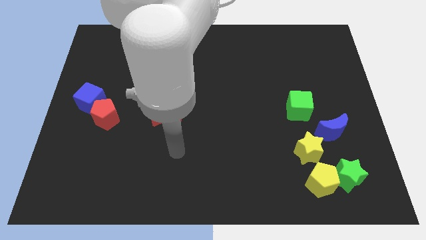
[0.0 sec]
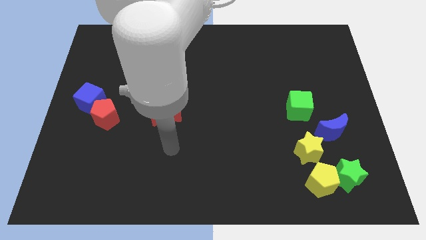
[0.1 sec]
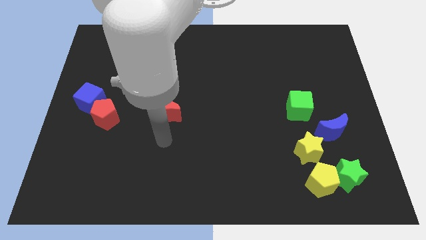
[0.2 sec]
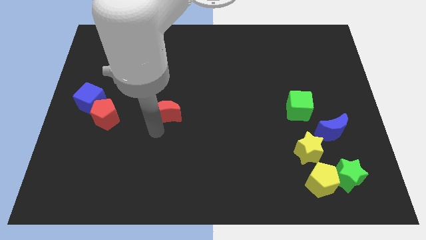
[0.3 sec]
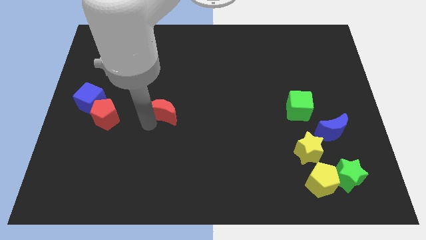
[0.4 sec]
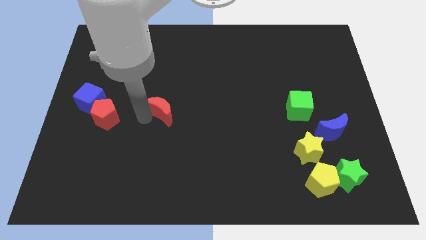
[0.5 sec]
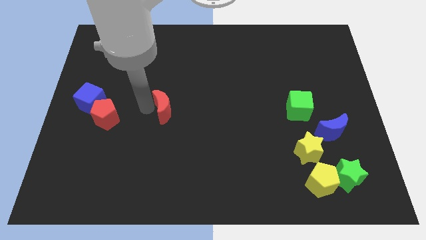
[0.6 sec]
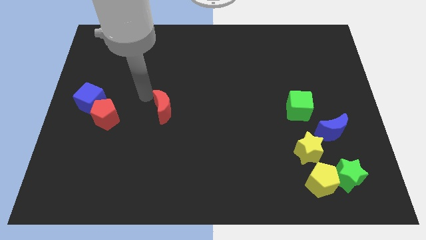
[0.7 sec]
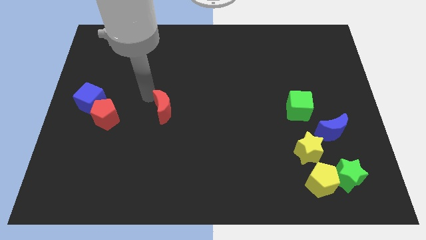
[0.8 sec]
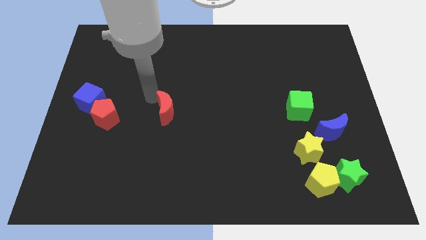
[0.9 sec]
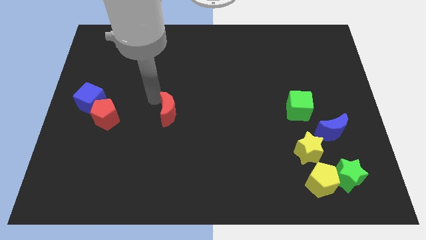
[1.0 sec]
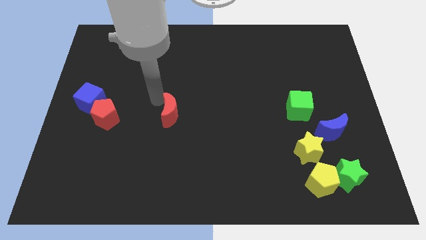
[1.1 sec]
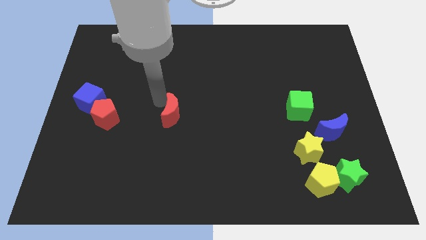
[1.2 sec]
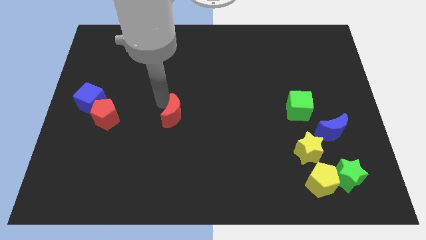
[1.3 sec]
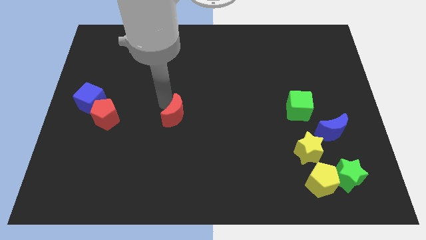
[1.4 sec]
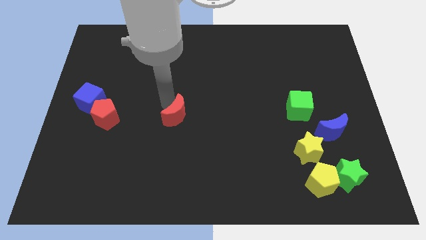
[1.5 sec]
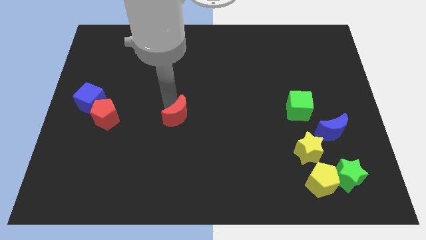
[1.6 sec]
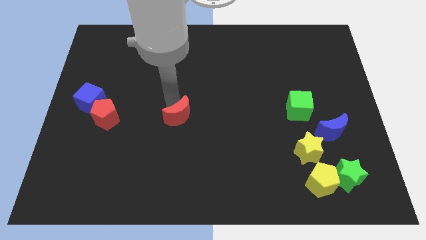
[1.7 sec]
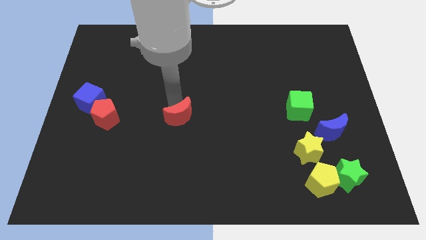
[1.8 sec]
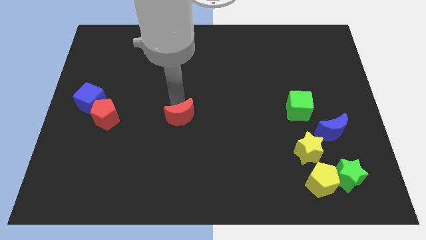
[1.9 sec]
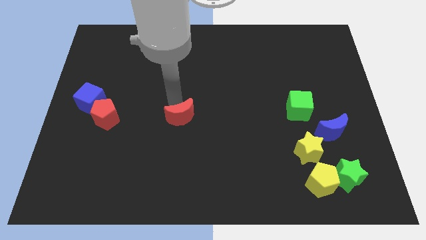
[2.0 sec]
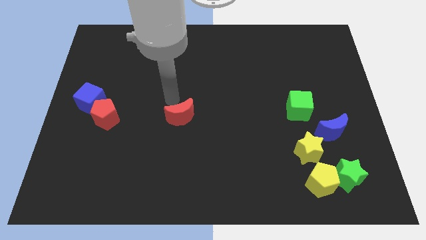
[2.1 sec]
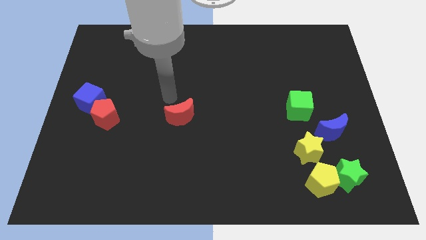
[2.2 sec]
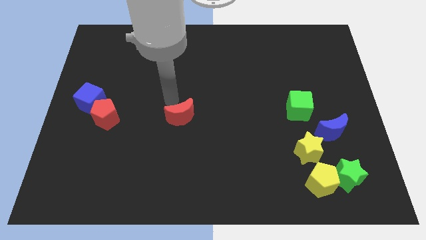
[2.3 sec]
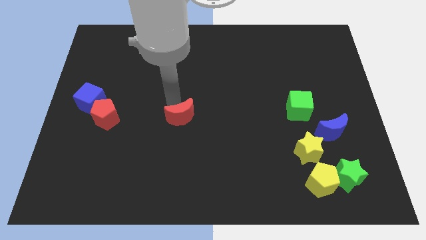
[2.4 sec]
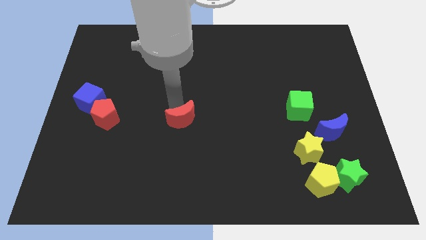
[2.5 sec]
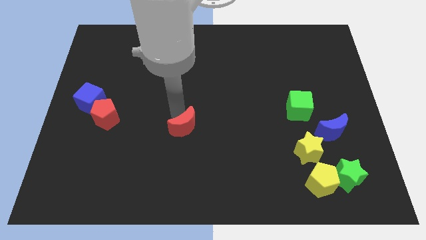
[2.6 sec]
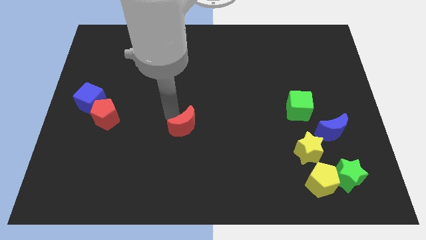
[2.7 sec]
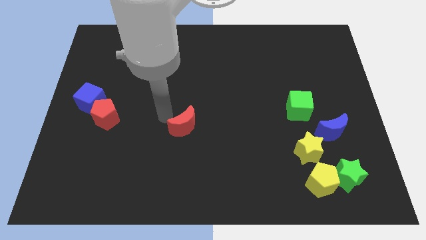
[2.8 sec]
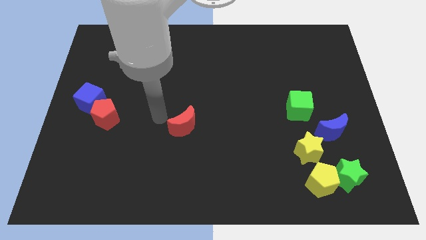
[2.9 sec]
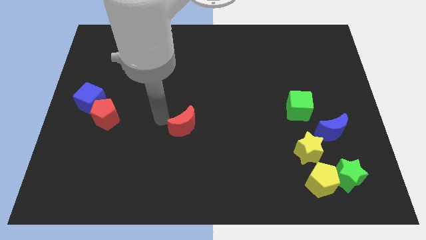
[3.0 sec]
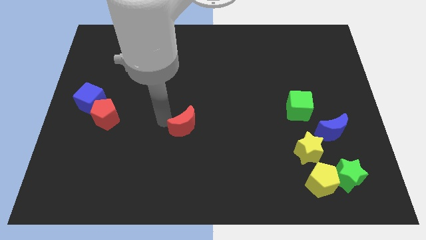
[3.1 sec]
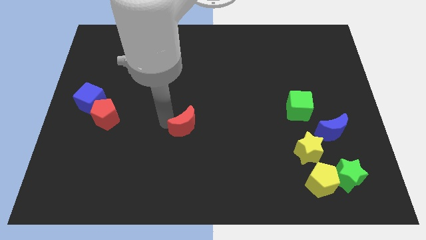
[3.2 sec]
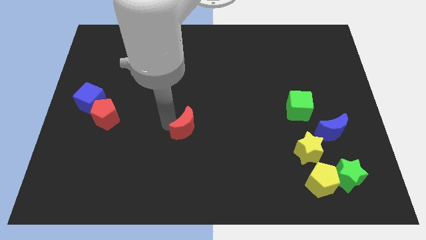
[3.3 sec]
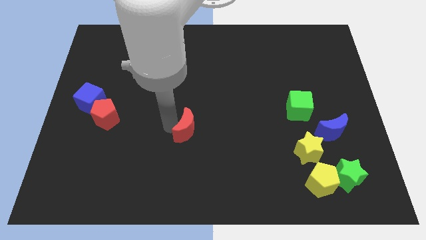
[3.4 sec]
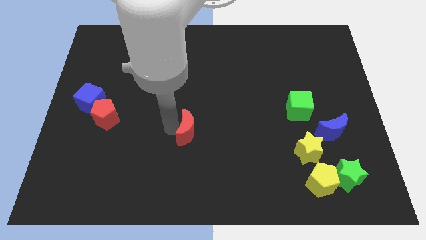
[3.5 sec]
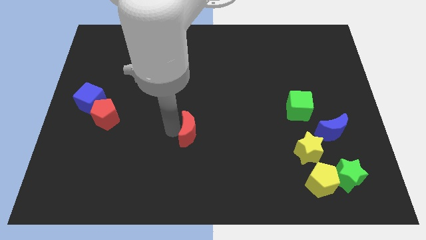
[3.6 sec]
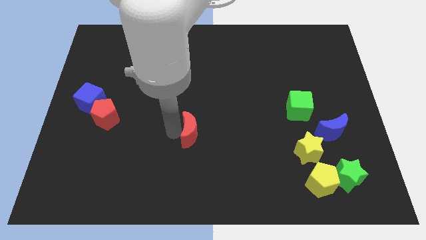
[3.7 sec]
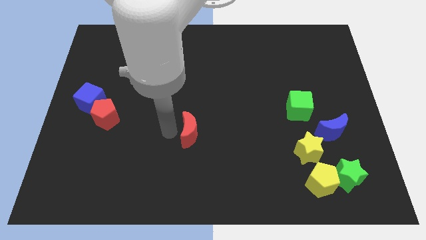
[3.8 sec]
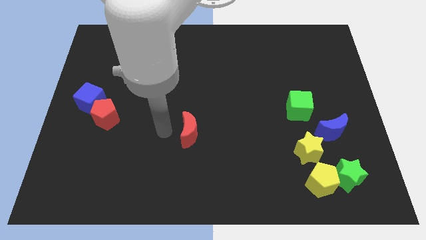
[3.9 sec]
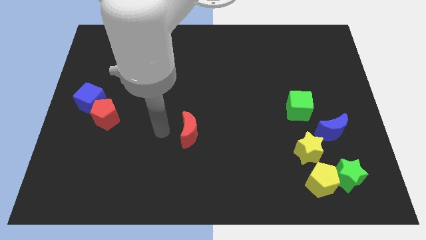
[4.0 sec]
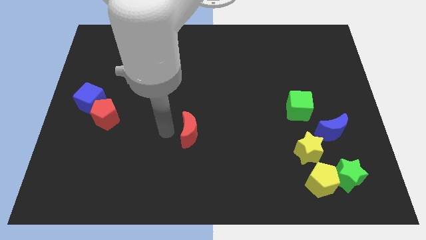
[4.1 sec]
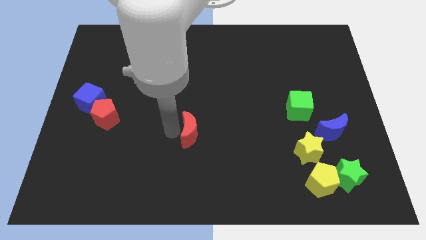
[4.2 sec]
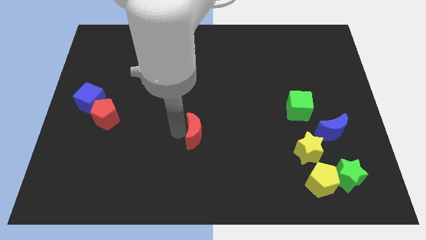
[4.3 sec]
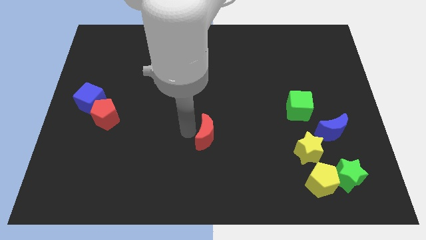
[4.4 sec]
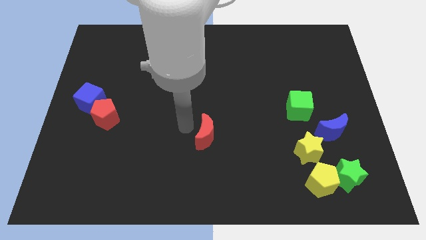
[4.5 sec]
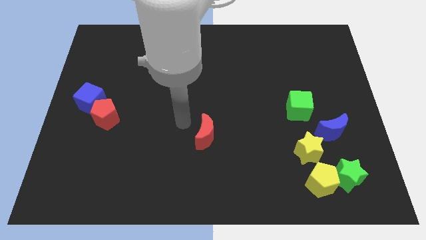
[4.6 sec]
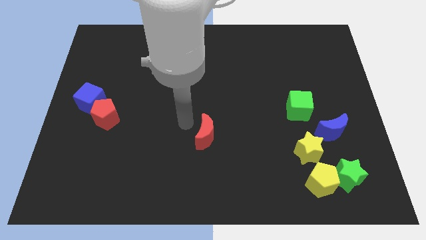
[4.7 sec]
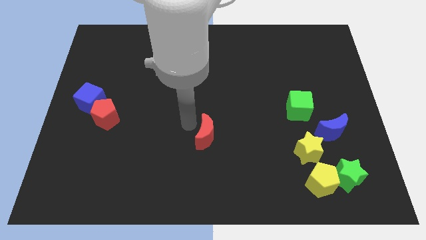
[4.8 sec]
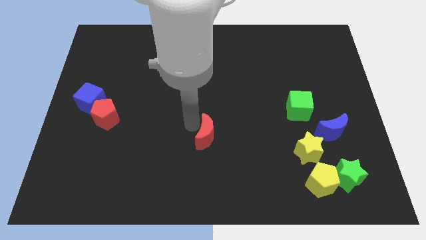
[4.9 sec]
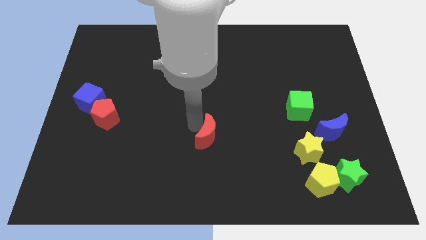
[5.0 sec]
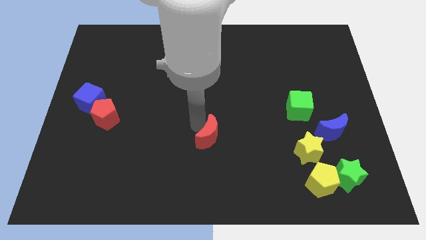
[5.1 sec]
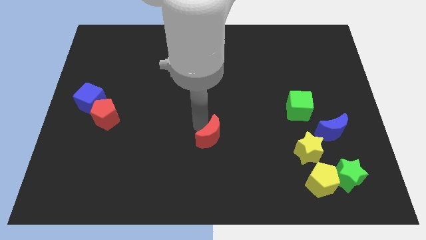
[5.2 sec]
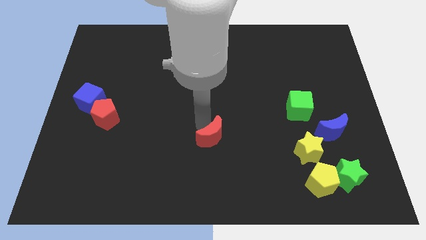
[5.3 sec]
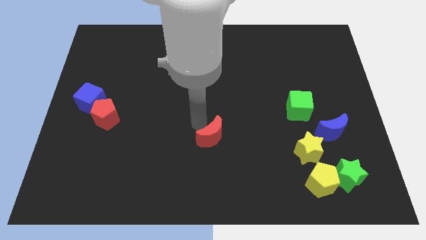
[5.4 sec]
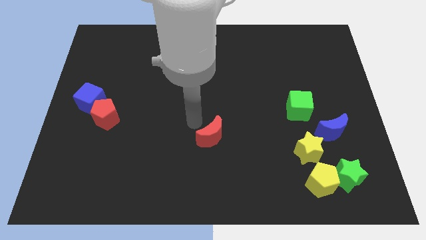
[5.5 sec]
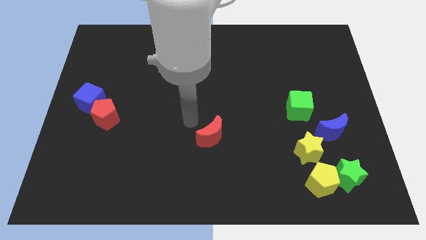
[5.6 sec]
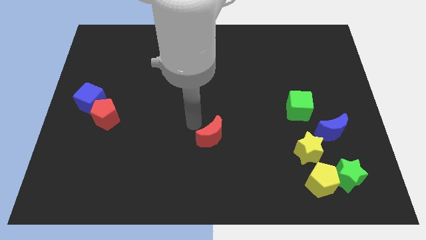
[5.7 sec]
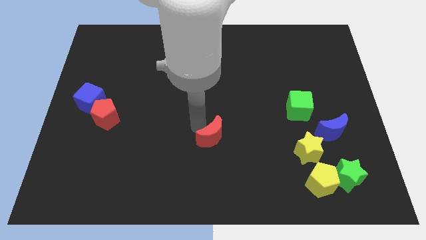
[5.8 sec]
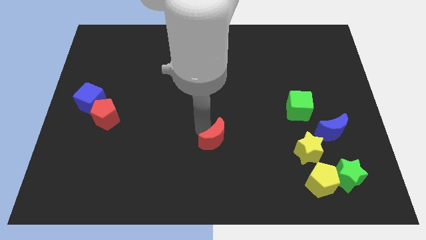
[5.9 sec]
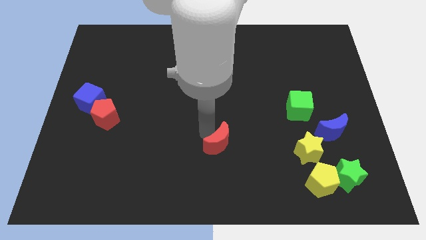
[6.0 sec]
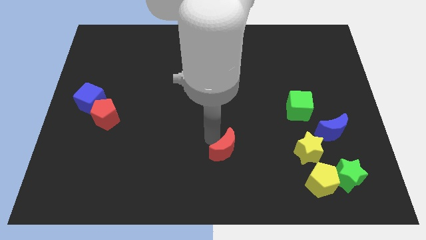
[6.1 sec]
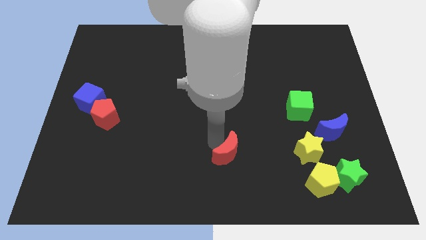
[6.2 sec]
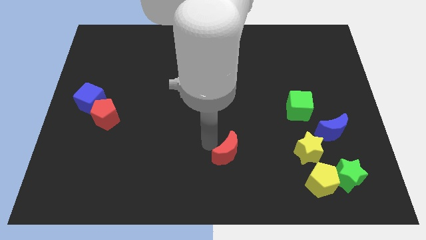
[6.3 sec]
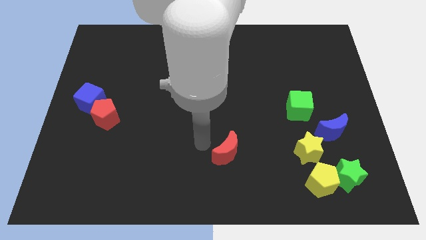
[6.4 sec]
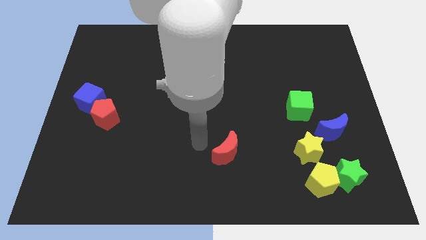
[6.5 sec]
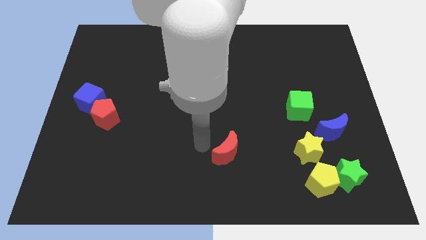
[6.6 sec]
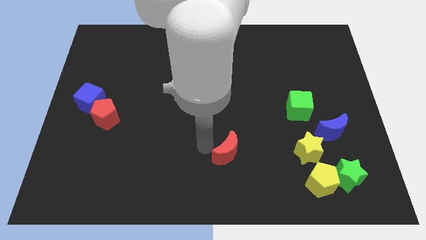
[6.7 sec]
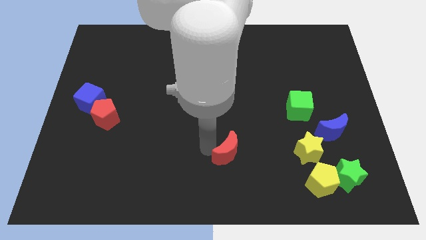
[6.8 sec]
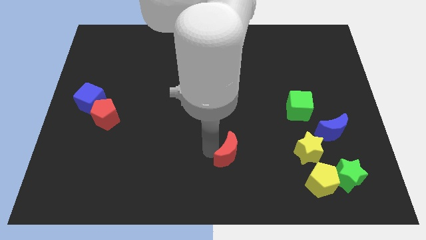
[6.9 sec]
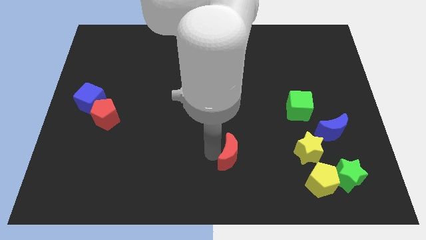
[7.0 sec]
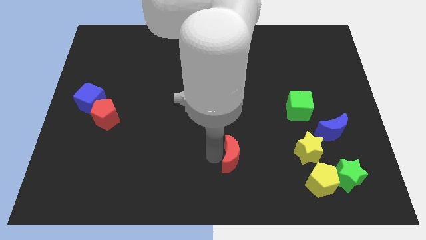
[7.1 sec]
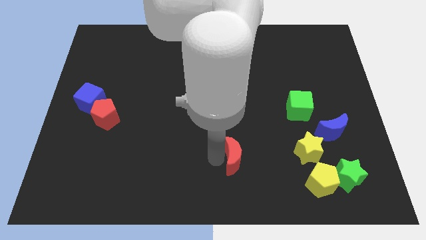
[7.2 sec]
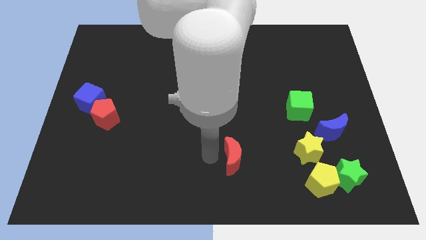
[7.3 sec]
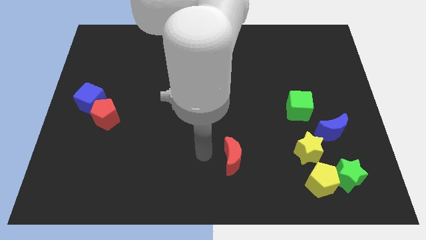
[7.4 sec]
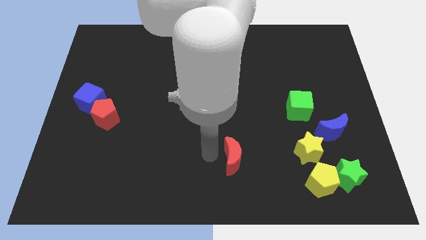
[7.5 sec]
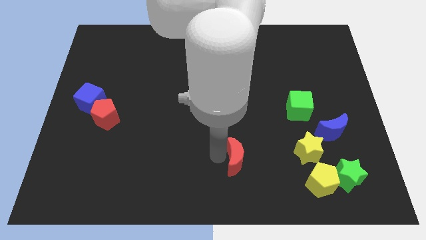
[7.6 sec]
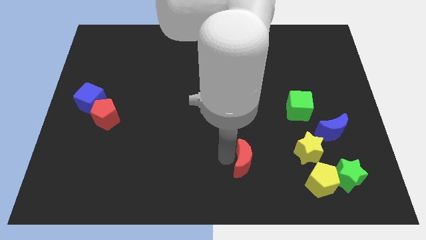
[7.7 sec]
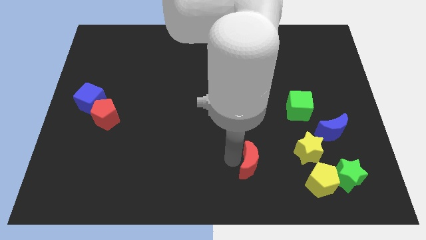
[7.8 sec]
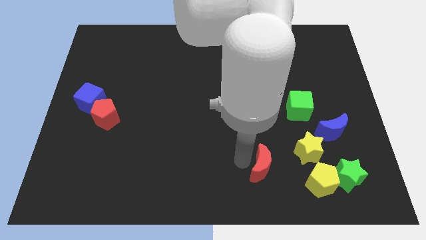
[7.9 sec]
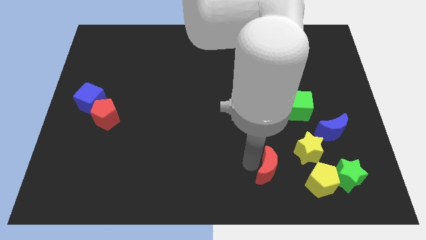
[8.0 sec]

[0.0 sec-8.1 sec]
move the red moon to the left side of the green star
